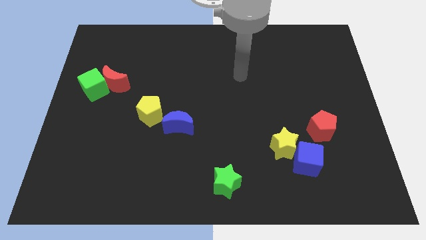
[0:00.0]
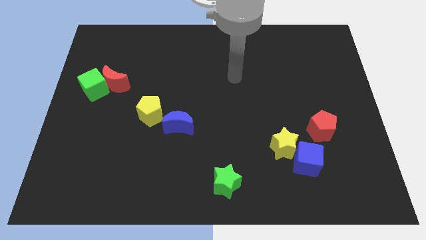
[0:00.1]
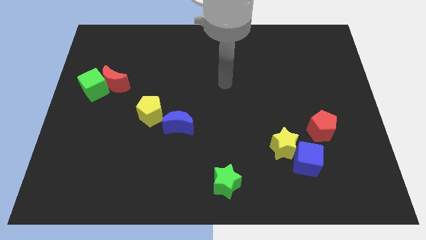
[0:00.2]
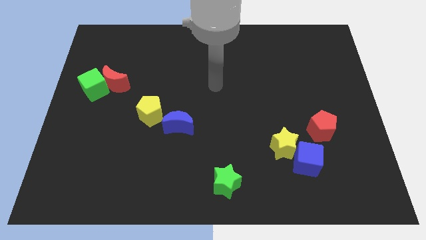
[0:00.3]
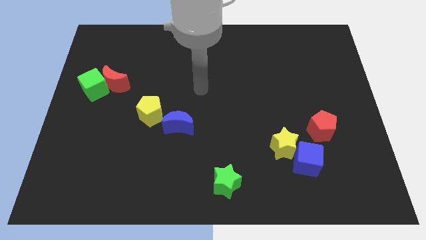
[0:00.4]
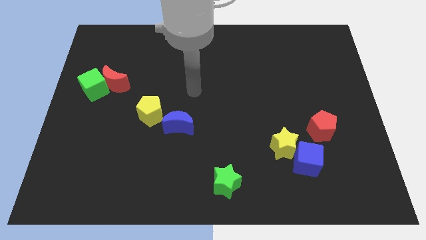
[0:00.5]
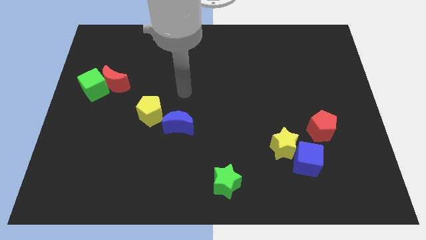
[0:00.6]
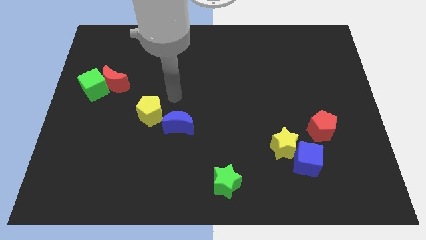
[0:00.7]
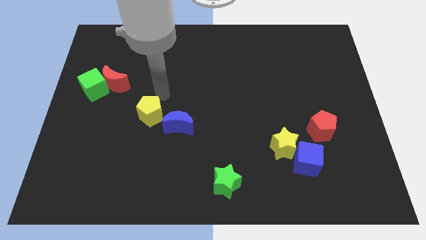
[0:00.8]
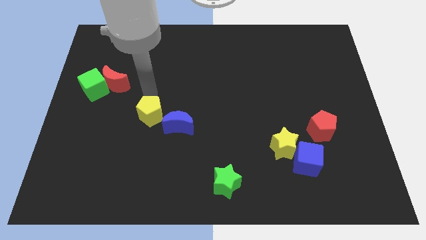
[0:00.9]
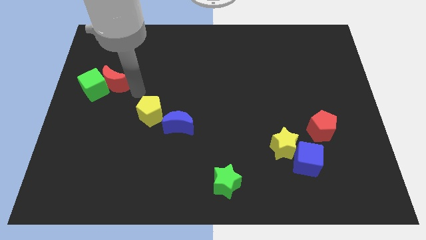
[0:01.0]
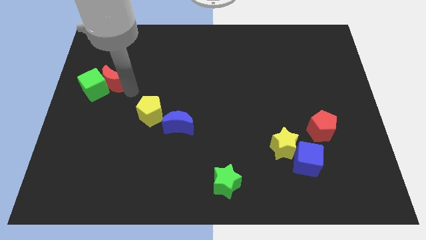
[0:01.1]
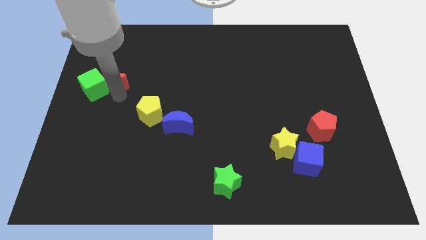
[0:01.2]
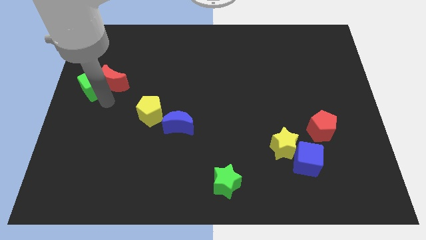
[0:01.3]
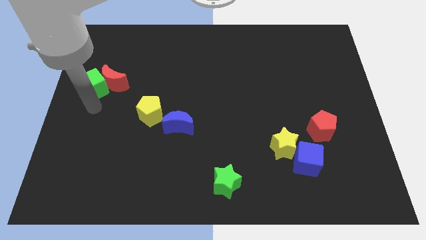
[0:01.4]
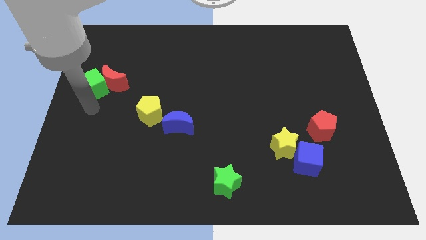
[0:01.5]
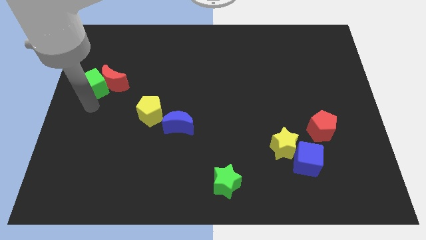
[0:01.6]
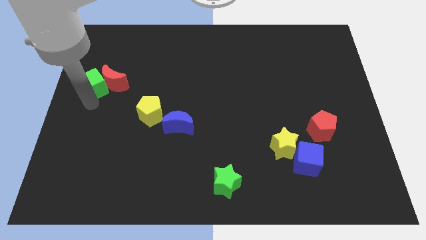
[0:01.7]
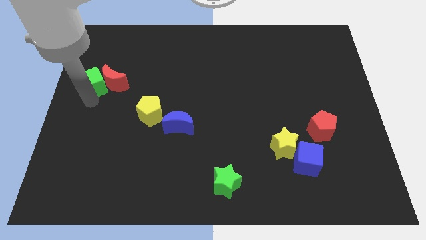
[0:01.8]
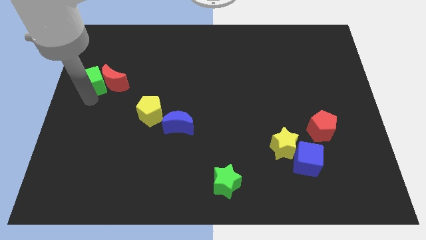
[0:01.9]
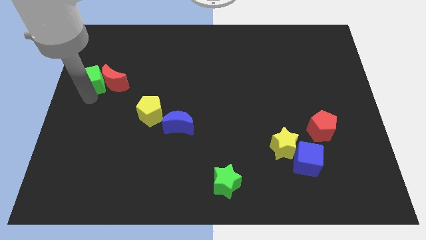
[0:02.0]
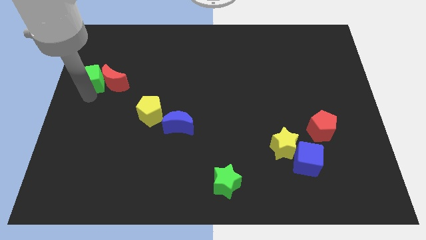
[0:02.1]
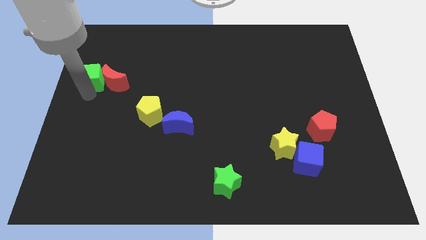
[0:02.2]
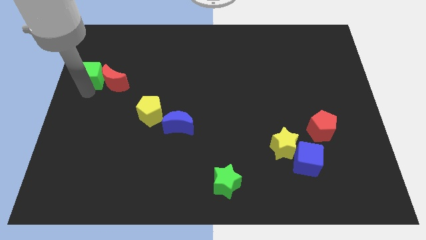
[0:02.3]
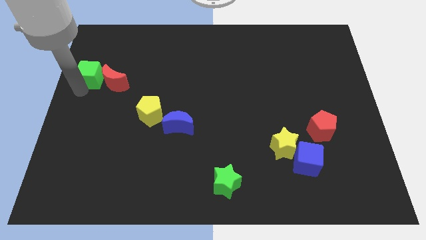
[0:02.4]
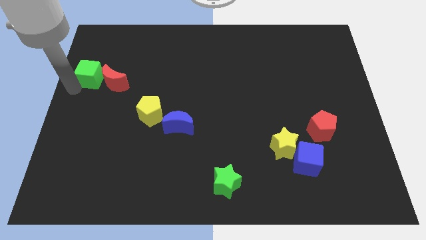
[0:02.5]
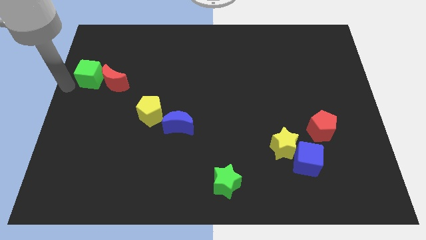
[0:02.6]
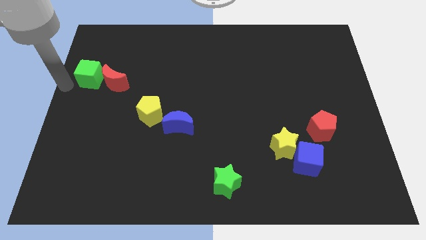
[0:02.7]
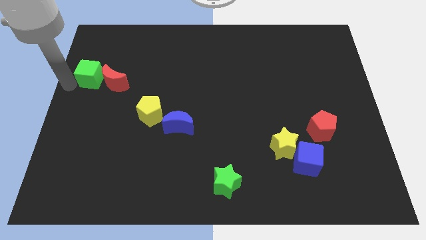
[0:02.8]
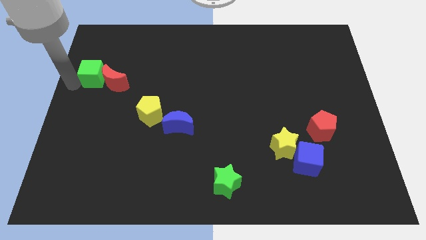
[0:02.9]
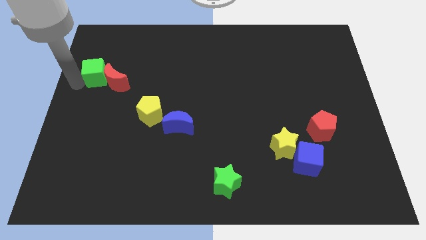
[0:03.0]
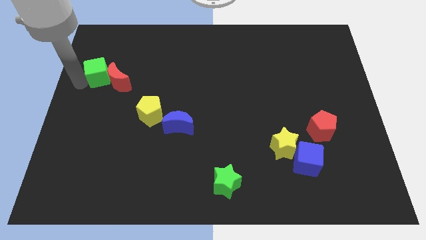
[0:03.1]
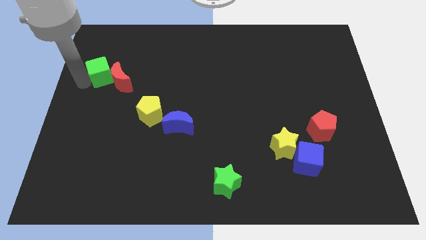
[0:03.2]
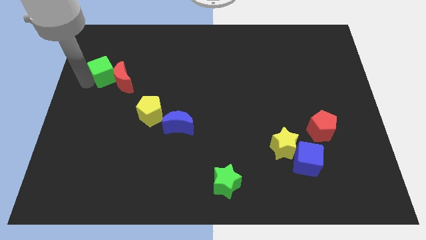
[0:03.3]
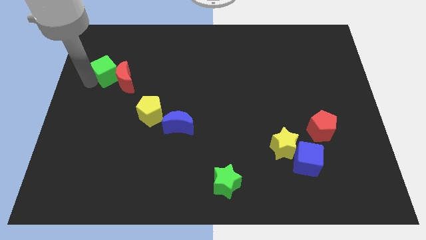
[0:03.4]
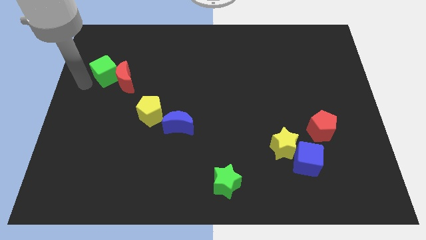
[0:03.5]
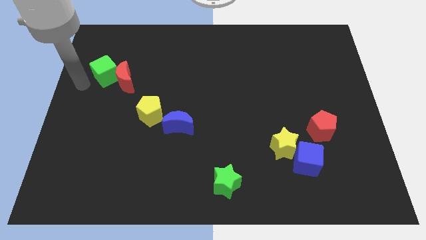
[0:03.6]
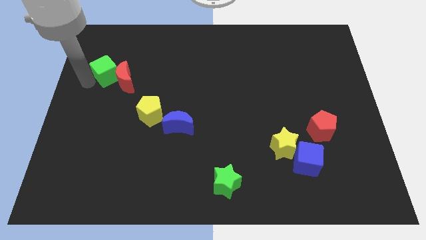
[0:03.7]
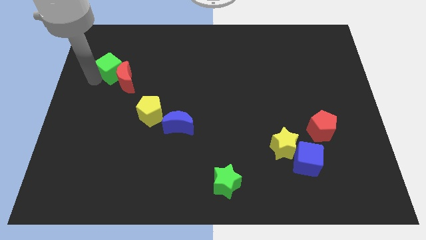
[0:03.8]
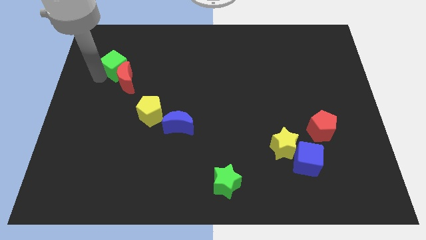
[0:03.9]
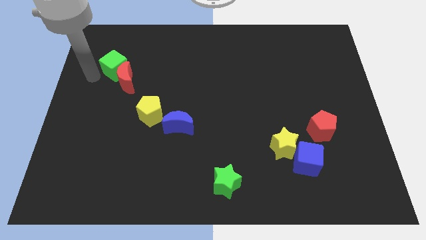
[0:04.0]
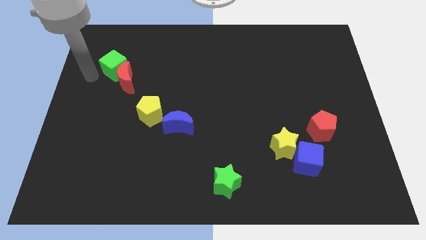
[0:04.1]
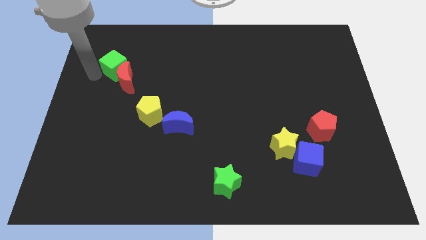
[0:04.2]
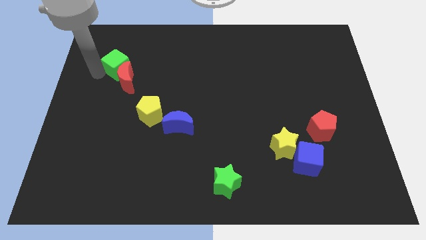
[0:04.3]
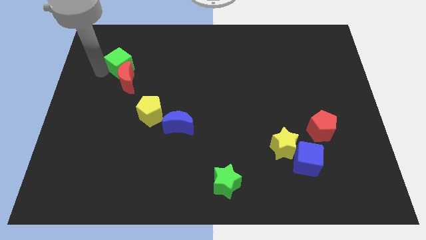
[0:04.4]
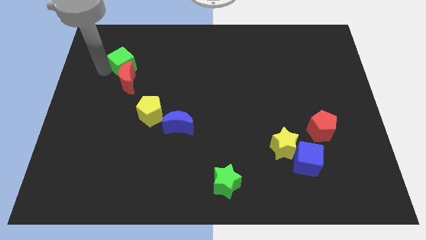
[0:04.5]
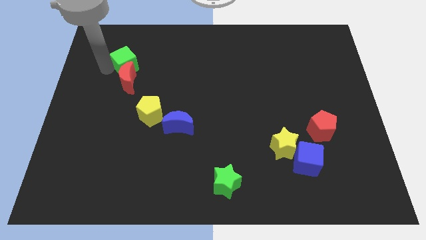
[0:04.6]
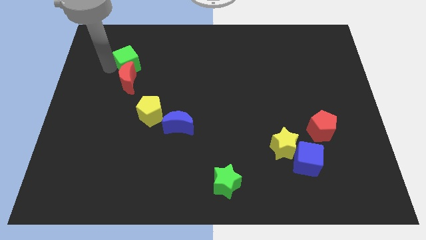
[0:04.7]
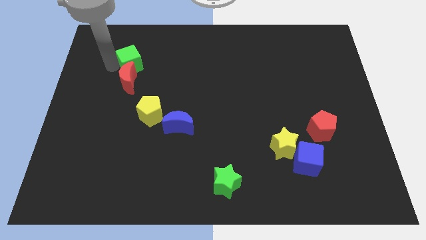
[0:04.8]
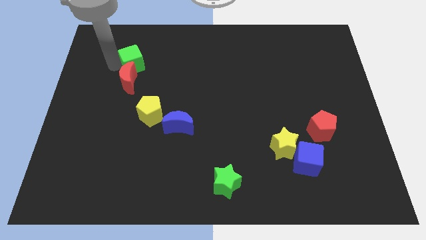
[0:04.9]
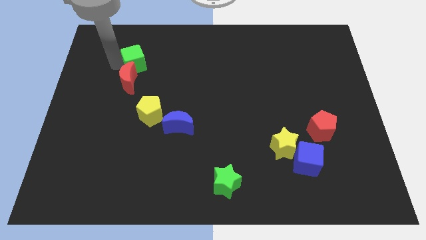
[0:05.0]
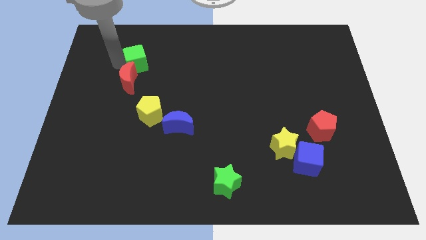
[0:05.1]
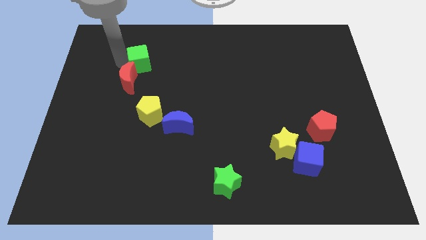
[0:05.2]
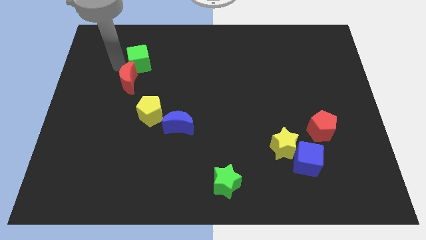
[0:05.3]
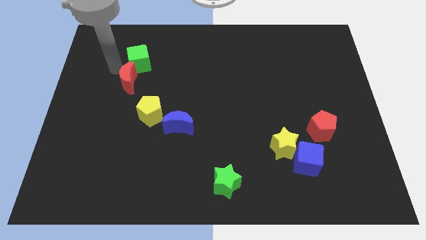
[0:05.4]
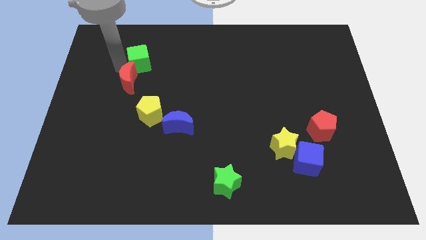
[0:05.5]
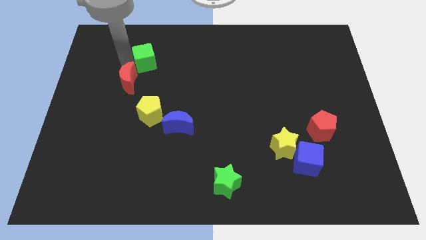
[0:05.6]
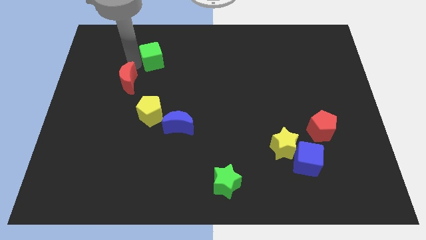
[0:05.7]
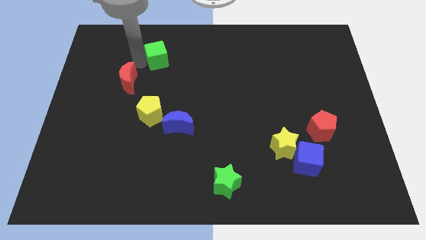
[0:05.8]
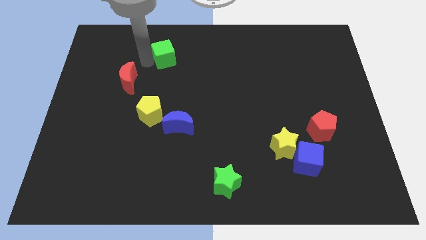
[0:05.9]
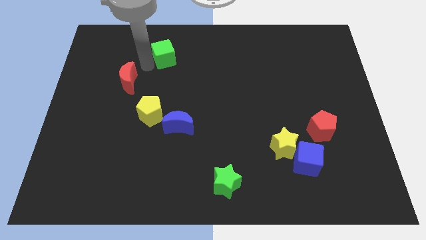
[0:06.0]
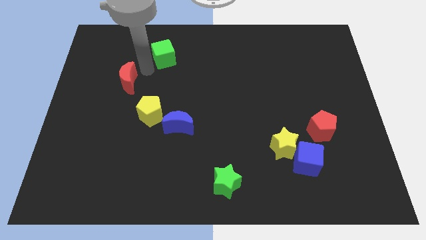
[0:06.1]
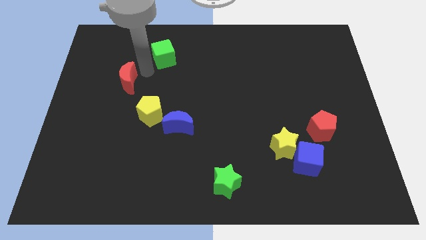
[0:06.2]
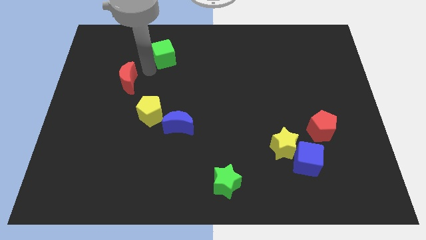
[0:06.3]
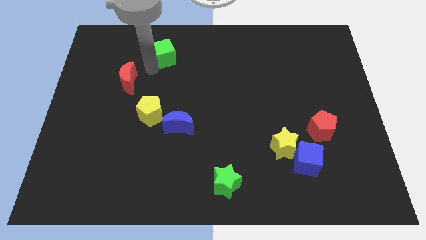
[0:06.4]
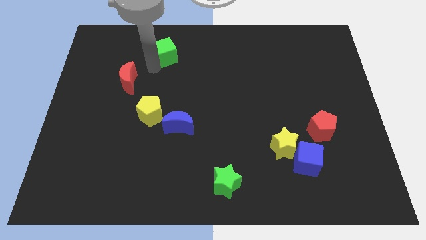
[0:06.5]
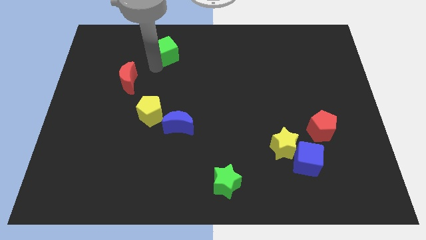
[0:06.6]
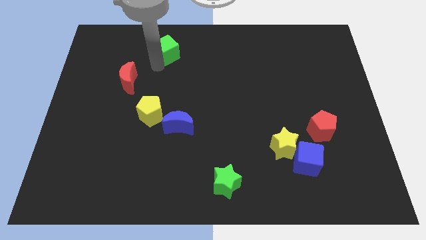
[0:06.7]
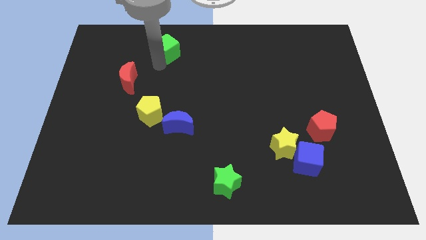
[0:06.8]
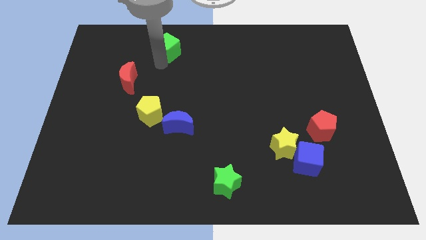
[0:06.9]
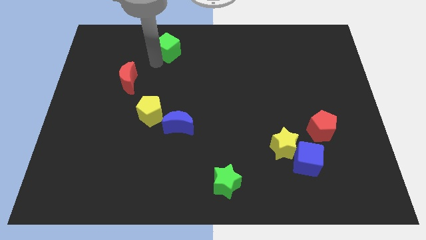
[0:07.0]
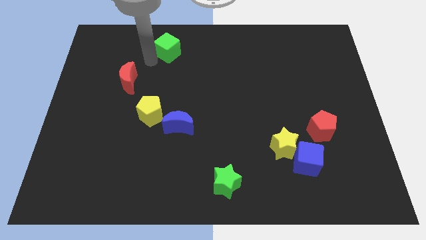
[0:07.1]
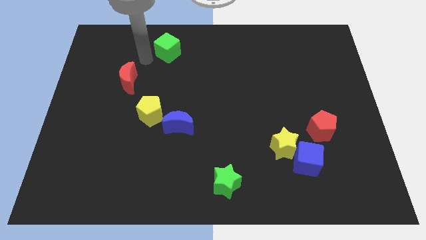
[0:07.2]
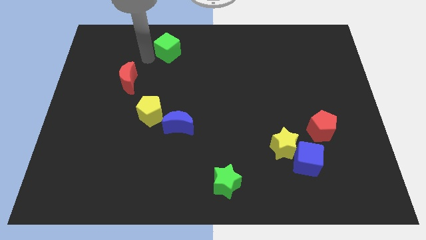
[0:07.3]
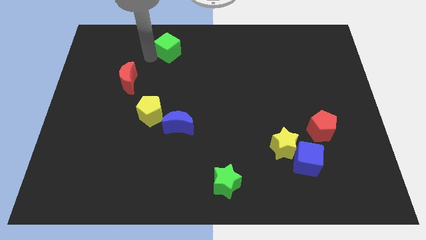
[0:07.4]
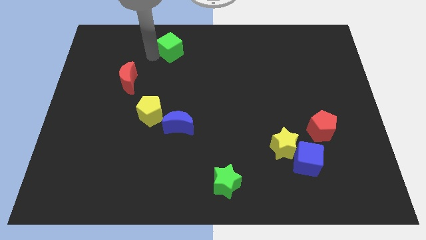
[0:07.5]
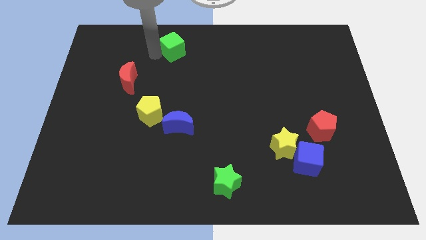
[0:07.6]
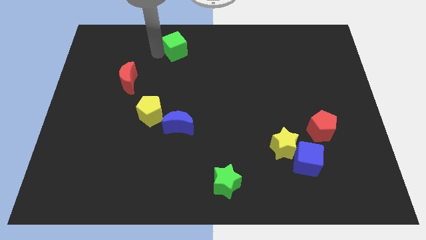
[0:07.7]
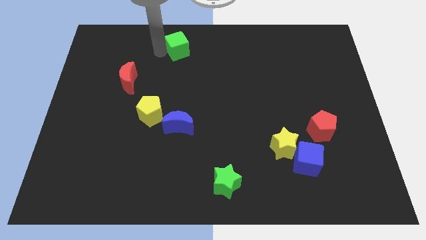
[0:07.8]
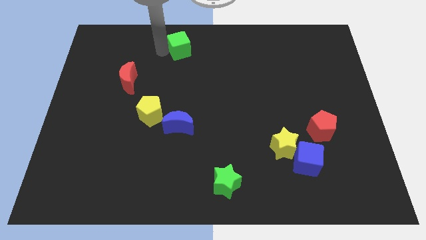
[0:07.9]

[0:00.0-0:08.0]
move the green cube to the towards your base
